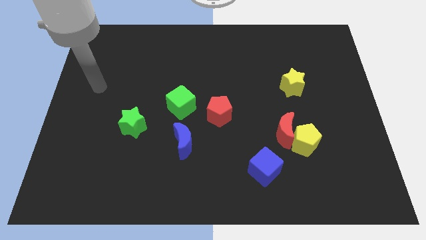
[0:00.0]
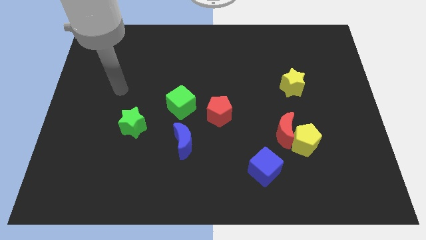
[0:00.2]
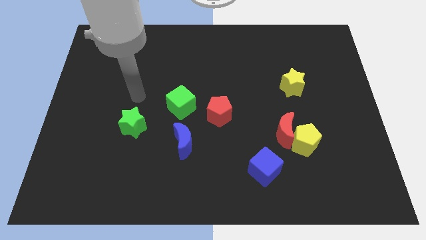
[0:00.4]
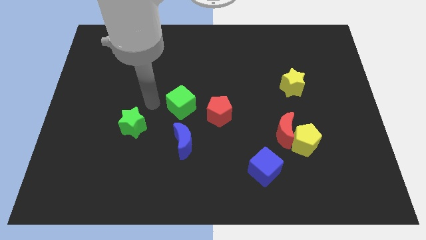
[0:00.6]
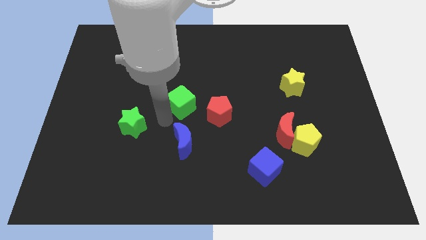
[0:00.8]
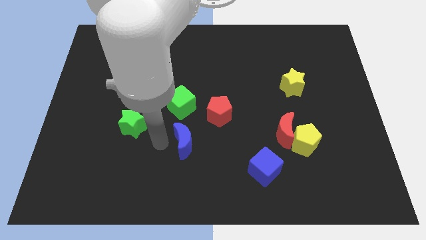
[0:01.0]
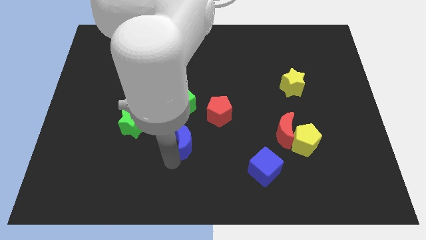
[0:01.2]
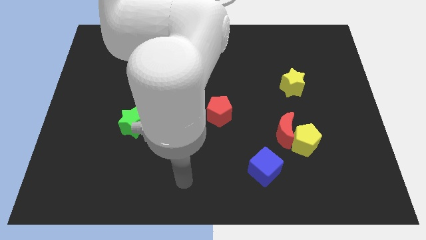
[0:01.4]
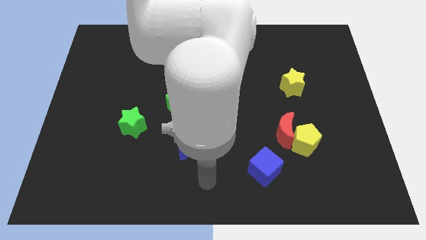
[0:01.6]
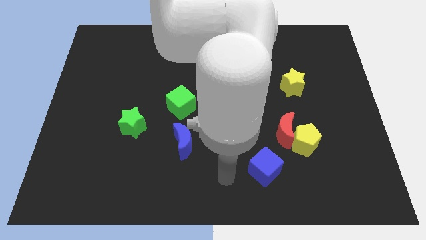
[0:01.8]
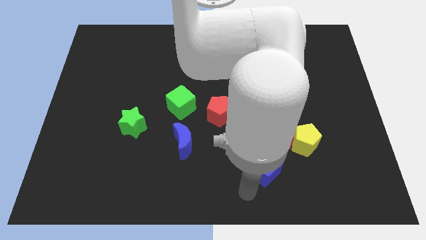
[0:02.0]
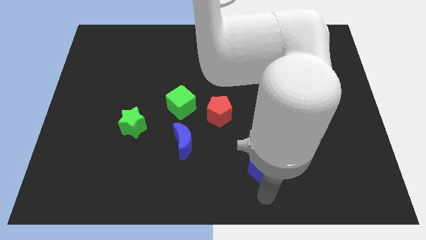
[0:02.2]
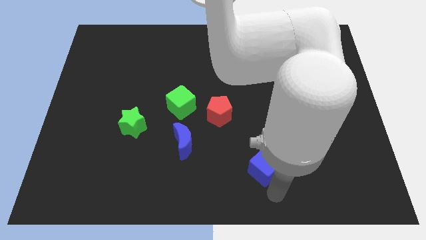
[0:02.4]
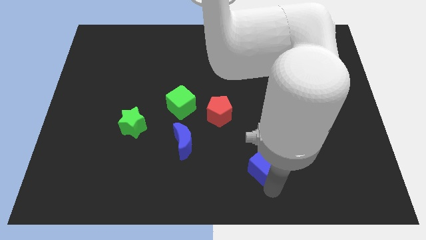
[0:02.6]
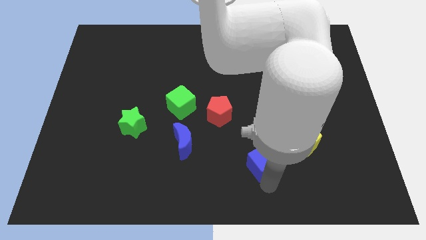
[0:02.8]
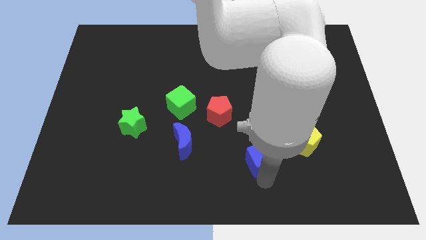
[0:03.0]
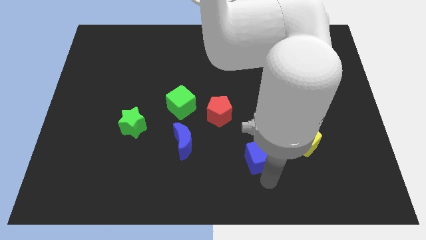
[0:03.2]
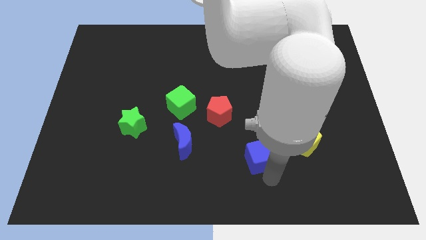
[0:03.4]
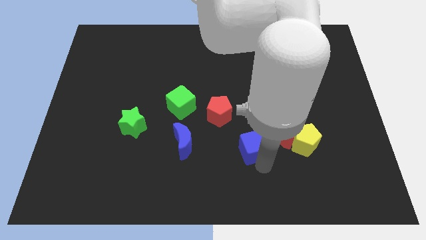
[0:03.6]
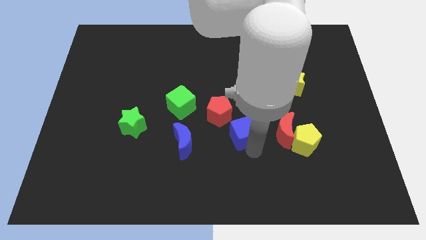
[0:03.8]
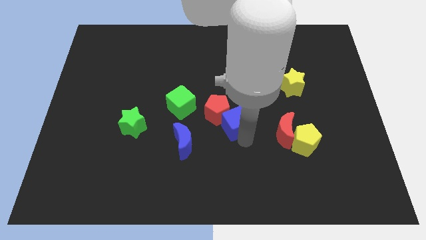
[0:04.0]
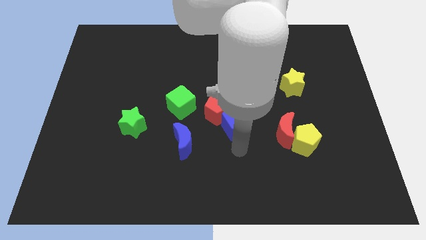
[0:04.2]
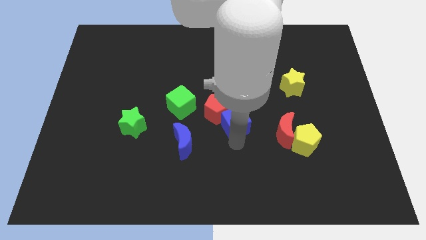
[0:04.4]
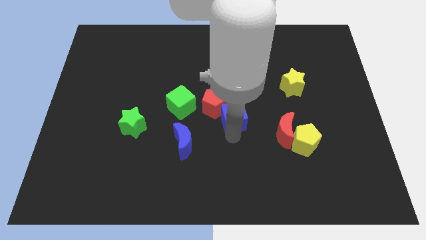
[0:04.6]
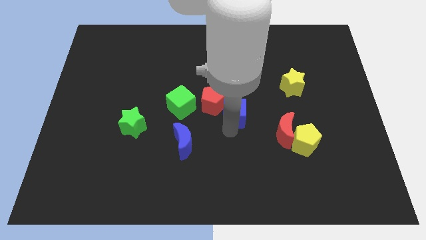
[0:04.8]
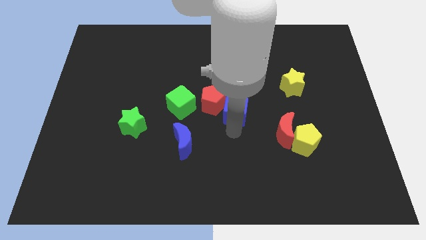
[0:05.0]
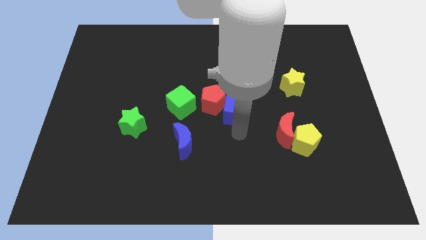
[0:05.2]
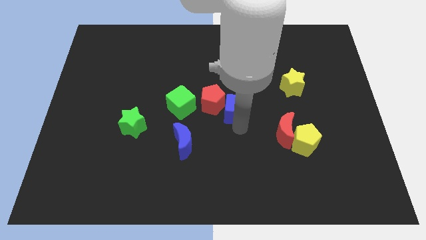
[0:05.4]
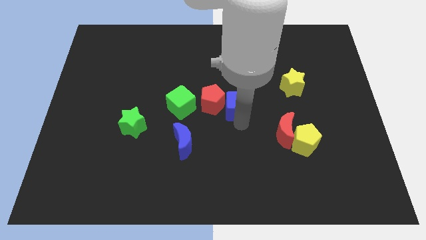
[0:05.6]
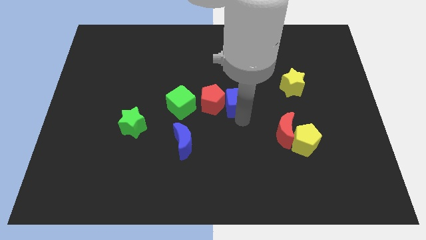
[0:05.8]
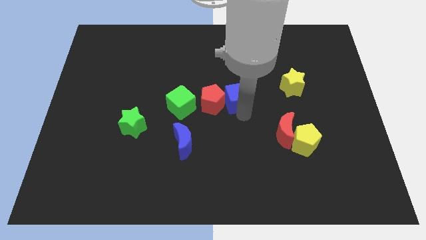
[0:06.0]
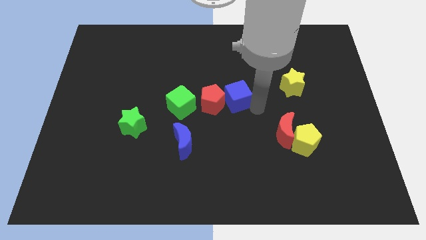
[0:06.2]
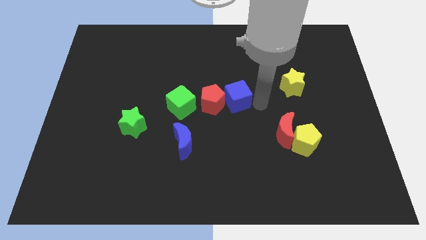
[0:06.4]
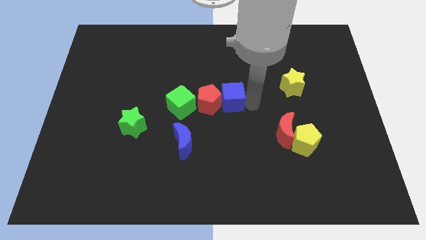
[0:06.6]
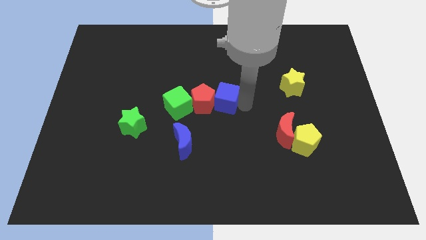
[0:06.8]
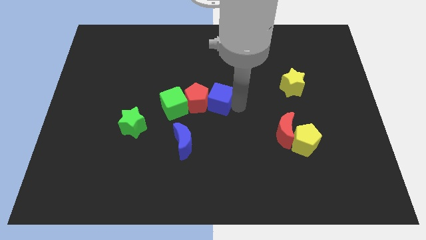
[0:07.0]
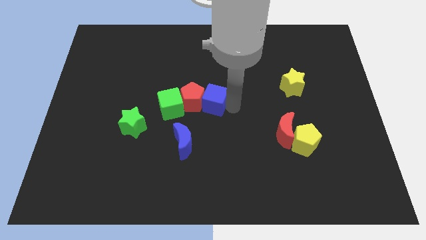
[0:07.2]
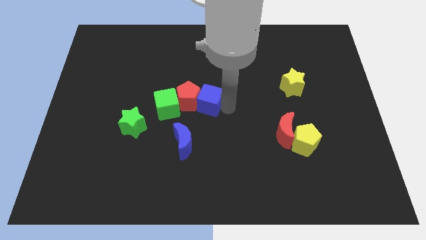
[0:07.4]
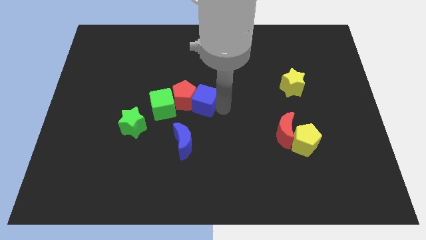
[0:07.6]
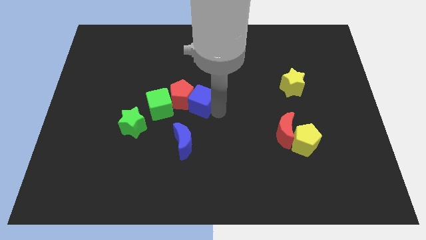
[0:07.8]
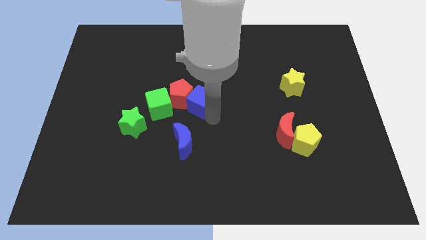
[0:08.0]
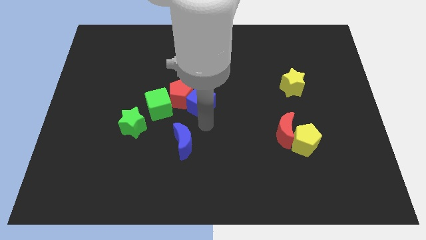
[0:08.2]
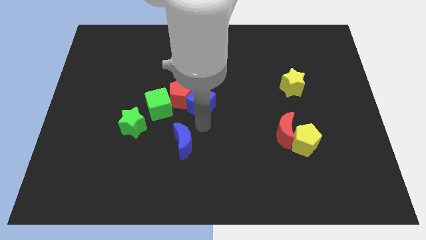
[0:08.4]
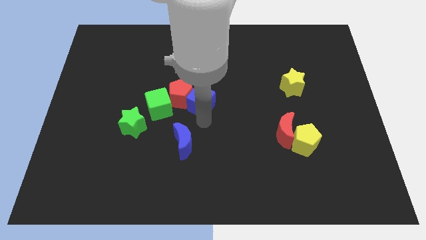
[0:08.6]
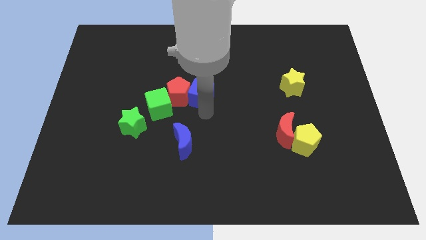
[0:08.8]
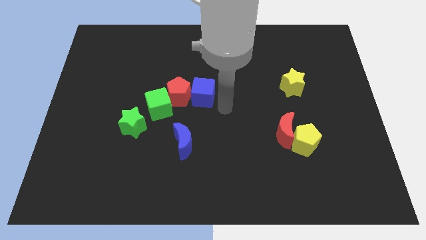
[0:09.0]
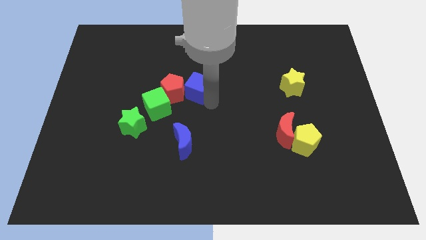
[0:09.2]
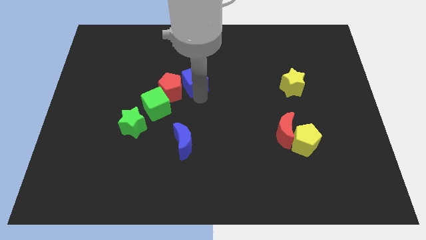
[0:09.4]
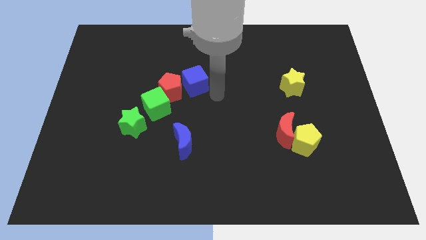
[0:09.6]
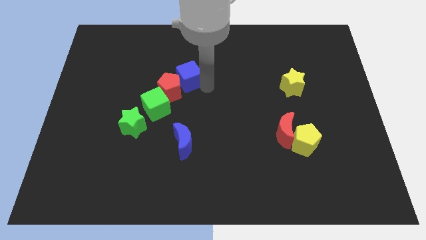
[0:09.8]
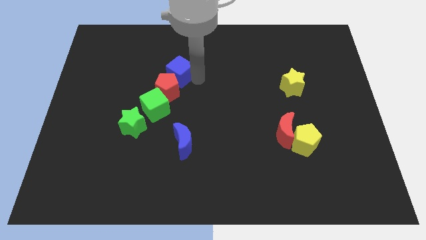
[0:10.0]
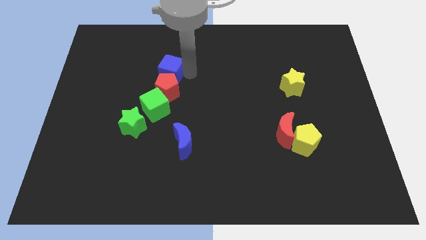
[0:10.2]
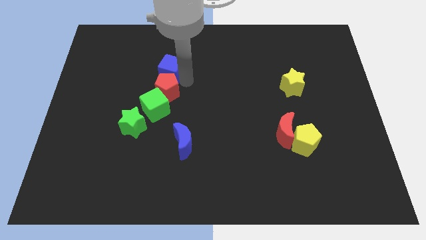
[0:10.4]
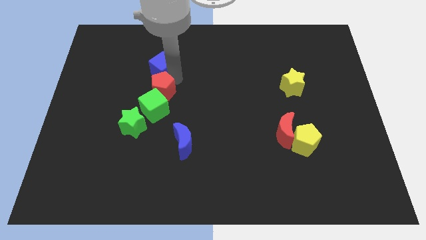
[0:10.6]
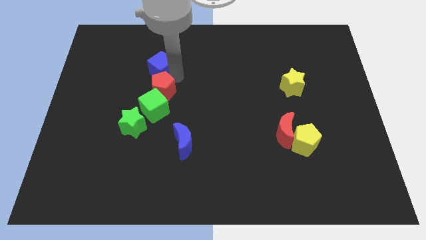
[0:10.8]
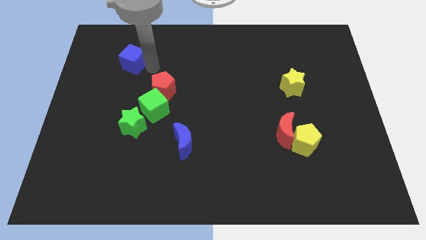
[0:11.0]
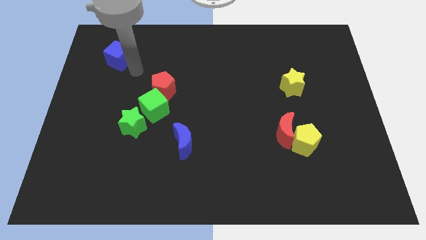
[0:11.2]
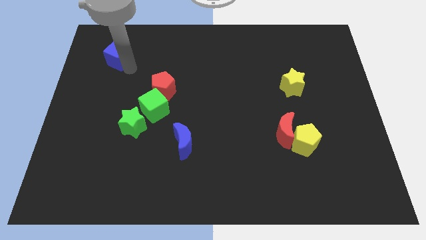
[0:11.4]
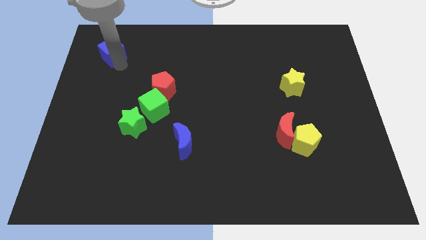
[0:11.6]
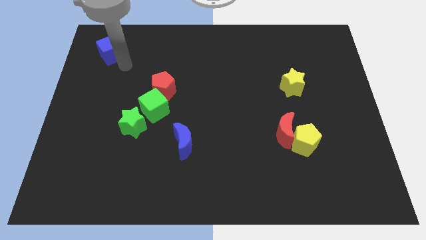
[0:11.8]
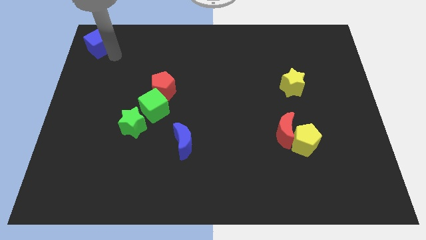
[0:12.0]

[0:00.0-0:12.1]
move the blue cube to the upper left corner

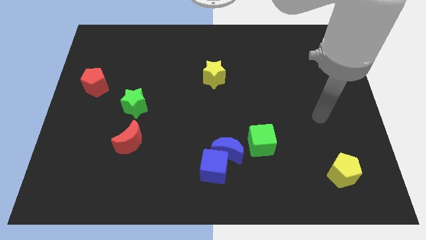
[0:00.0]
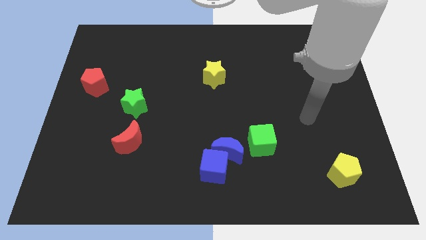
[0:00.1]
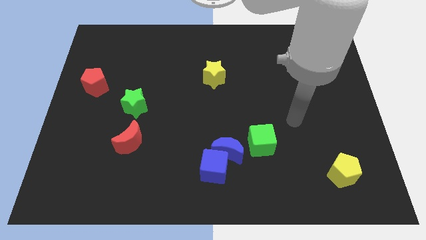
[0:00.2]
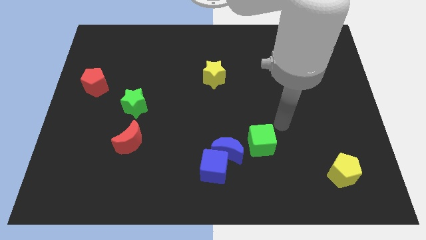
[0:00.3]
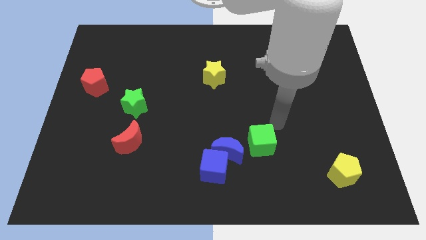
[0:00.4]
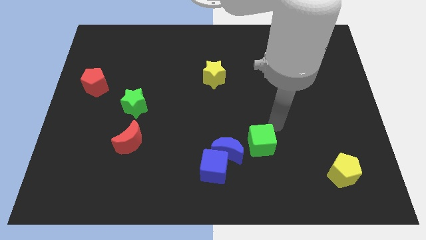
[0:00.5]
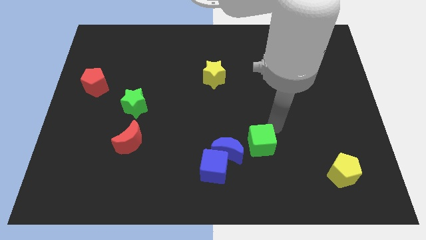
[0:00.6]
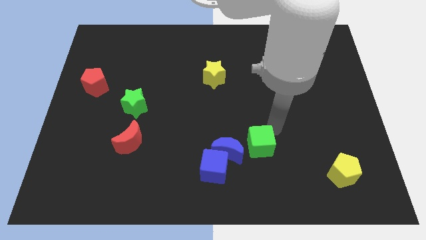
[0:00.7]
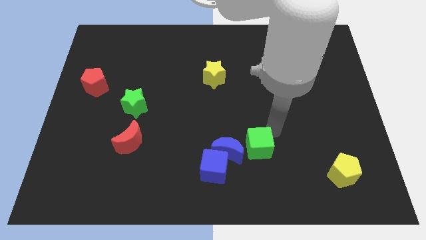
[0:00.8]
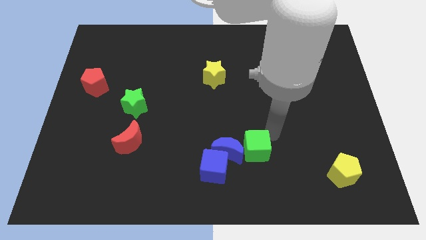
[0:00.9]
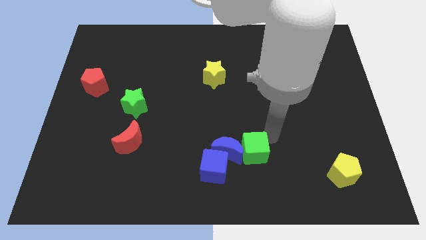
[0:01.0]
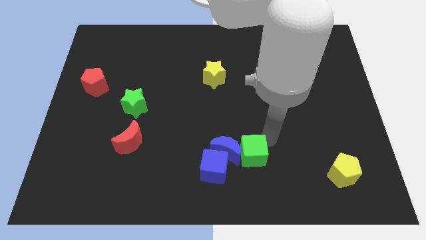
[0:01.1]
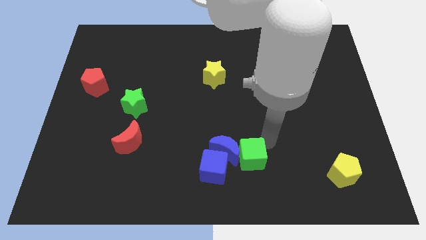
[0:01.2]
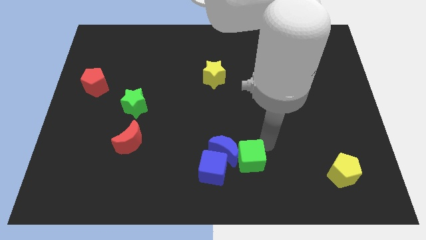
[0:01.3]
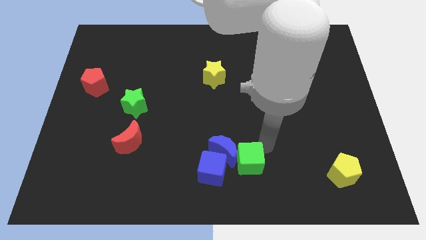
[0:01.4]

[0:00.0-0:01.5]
put the green cube to the bottom
